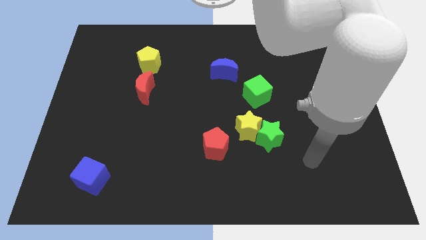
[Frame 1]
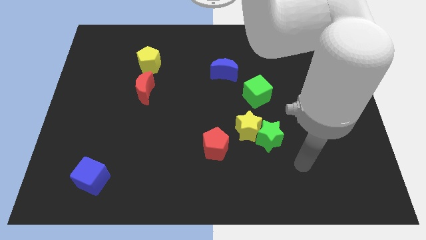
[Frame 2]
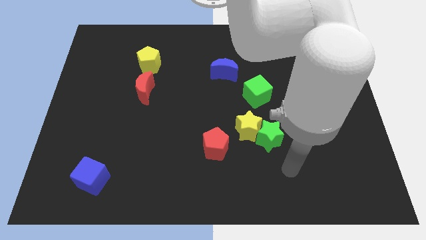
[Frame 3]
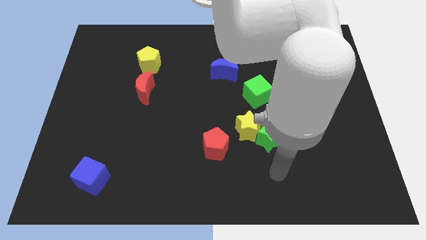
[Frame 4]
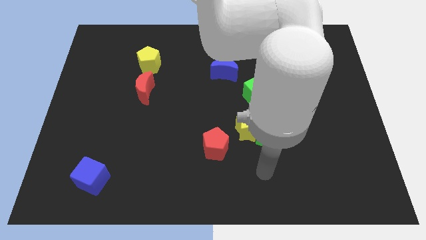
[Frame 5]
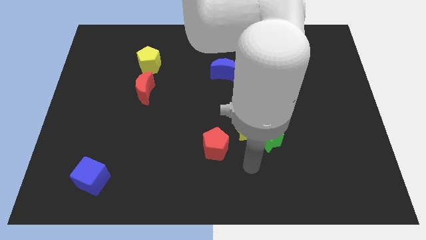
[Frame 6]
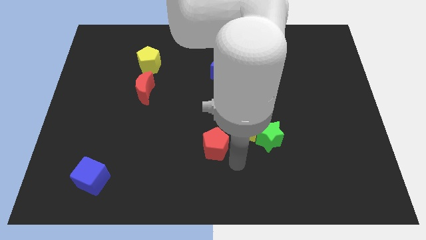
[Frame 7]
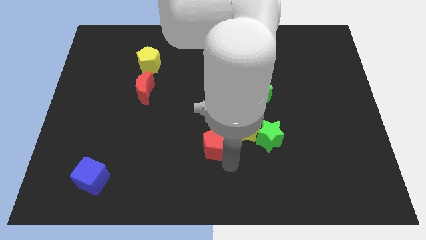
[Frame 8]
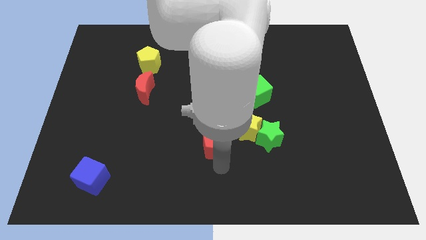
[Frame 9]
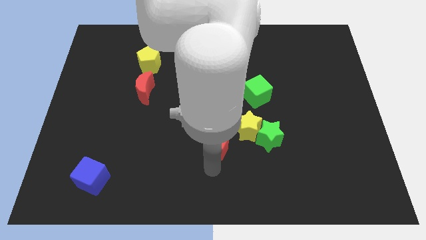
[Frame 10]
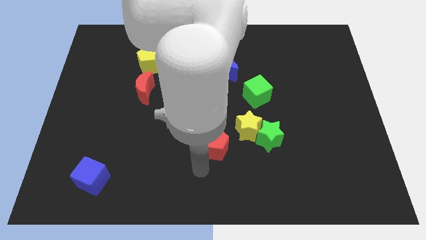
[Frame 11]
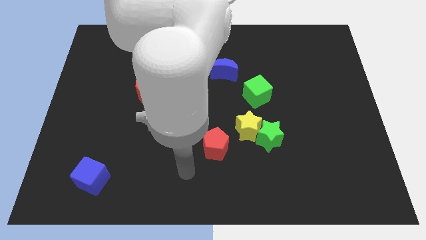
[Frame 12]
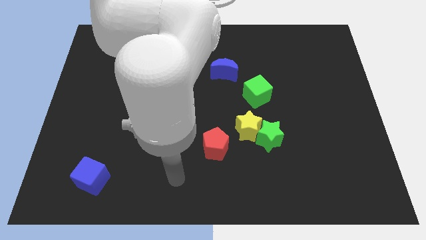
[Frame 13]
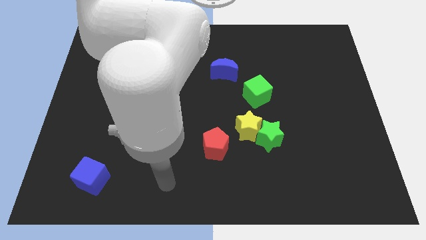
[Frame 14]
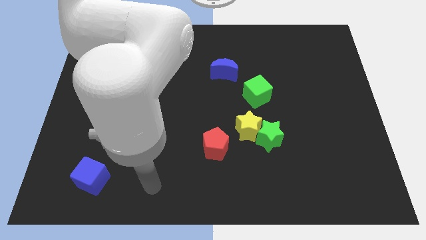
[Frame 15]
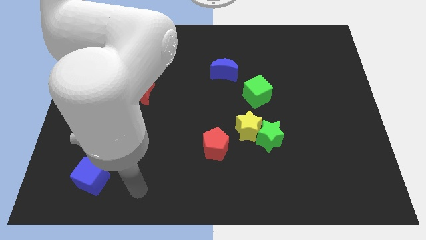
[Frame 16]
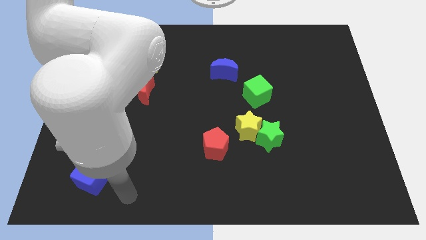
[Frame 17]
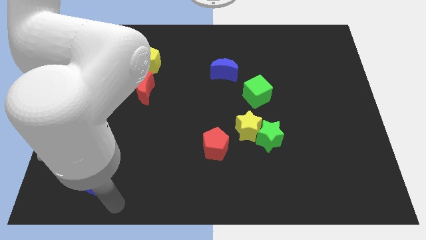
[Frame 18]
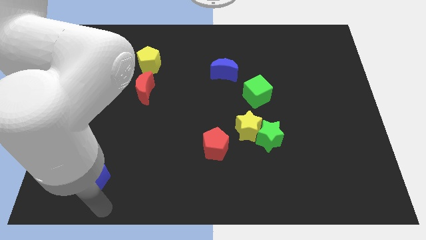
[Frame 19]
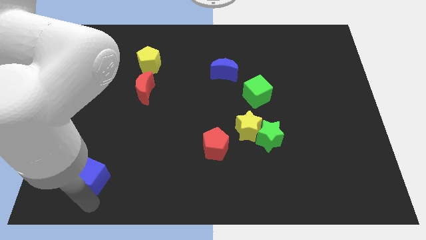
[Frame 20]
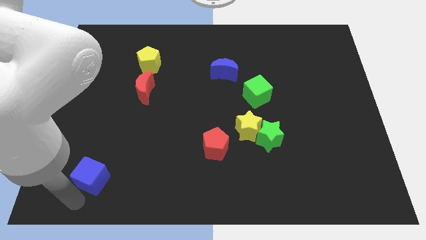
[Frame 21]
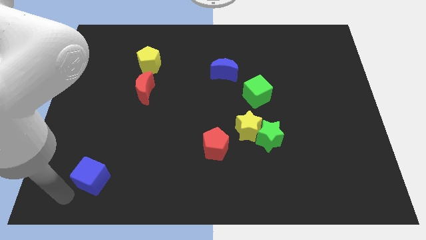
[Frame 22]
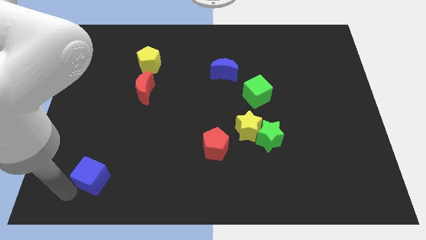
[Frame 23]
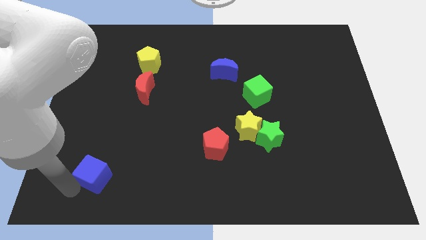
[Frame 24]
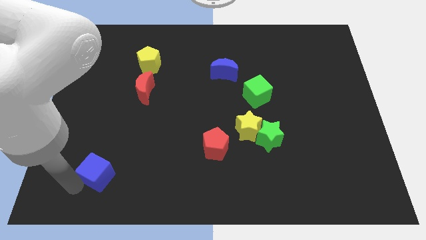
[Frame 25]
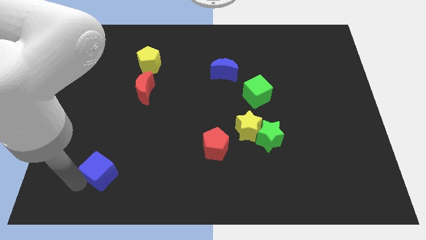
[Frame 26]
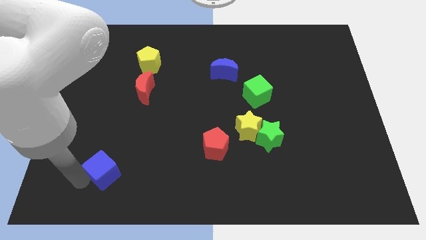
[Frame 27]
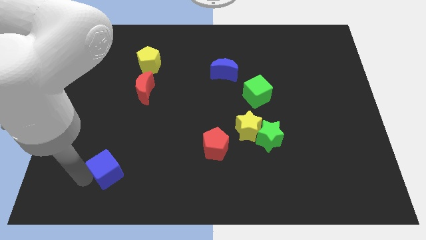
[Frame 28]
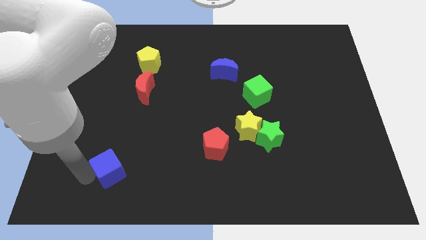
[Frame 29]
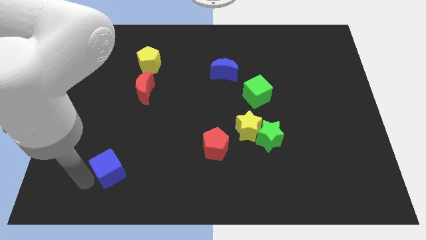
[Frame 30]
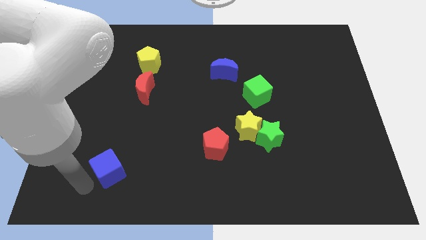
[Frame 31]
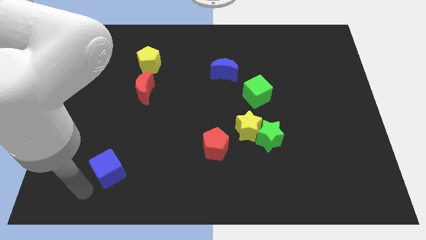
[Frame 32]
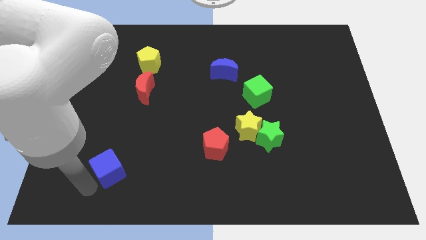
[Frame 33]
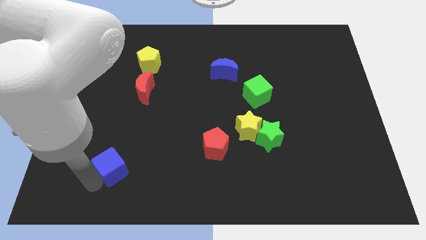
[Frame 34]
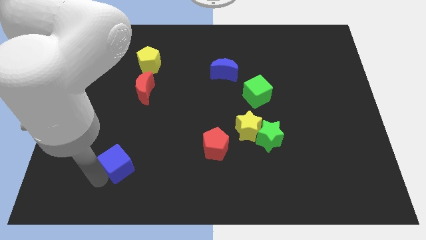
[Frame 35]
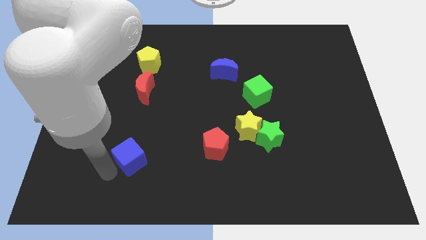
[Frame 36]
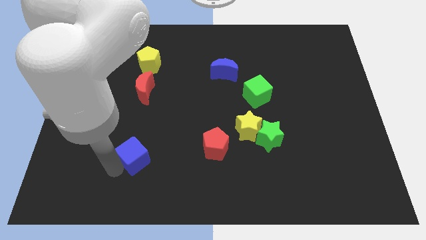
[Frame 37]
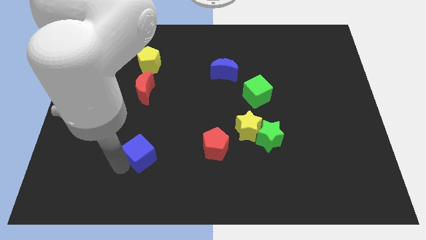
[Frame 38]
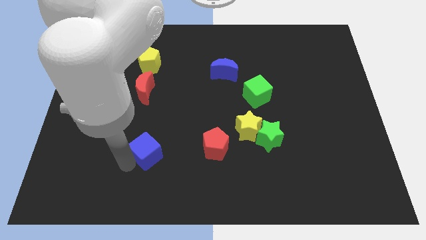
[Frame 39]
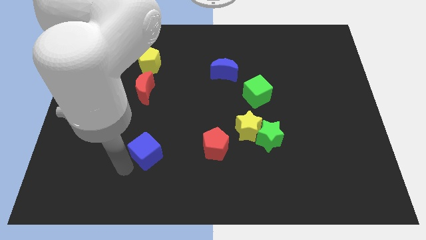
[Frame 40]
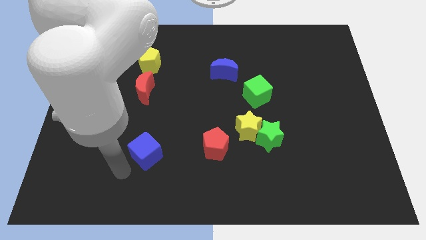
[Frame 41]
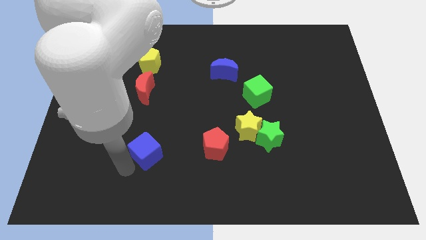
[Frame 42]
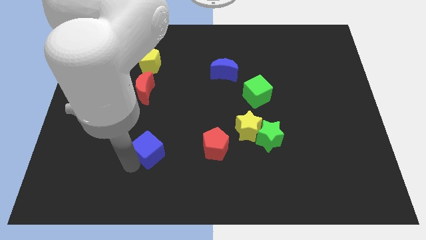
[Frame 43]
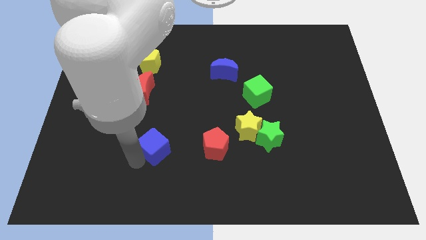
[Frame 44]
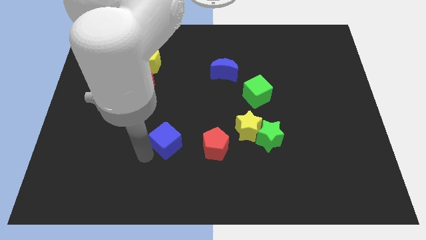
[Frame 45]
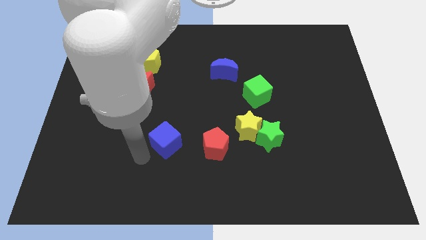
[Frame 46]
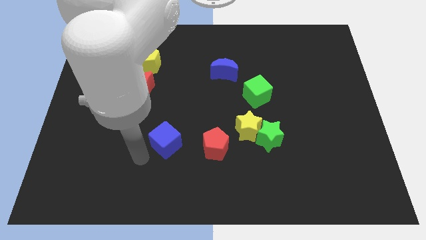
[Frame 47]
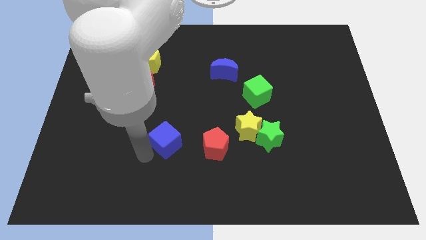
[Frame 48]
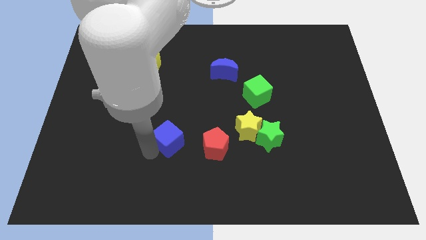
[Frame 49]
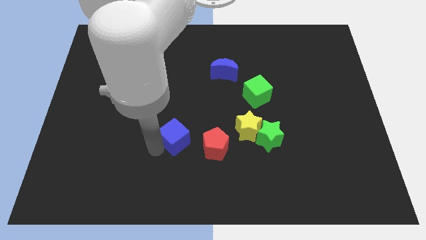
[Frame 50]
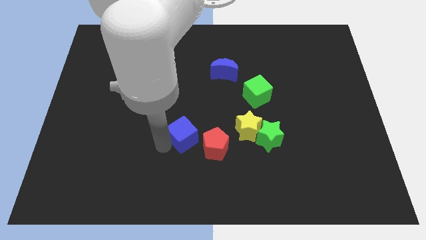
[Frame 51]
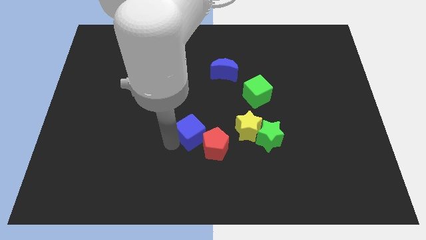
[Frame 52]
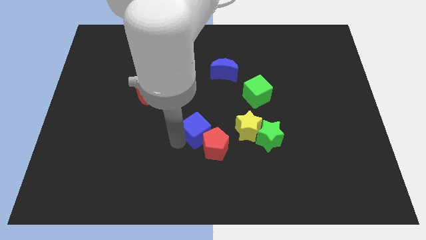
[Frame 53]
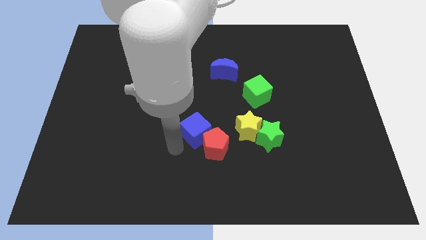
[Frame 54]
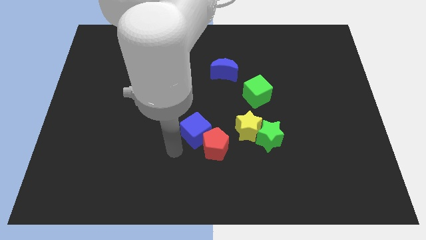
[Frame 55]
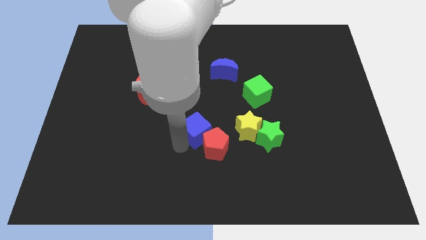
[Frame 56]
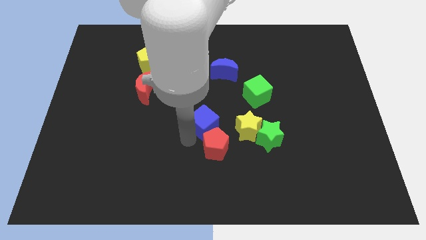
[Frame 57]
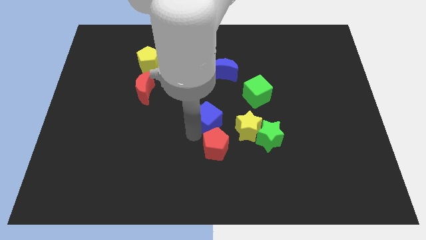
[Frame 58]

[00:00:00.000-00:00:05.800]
slide the blue cube to the top left side of the yellow star

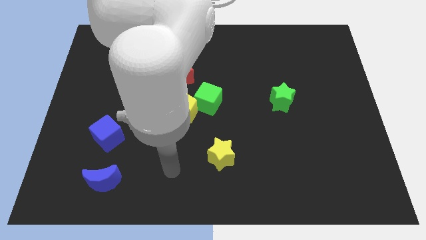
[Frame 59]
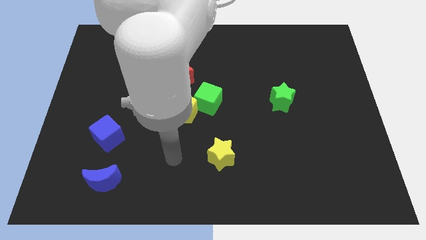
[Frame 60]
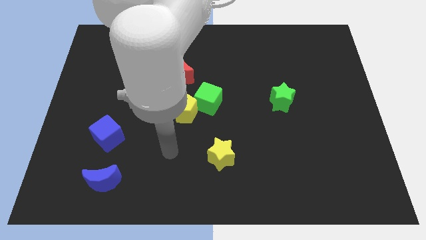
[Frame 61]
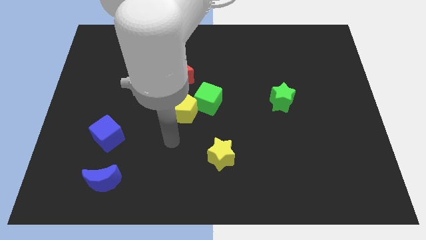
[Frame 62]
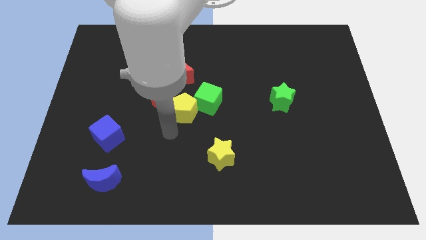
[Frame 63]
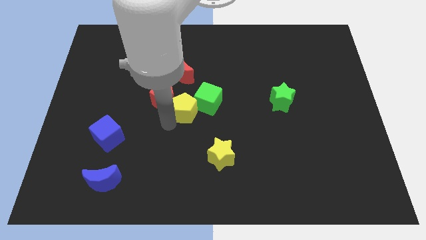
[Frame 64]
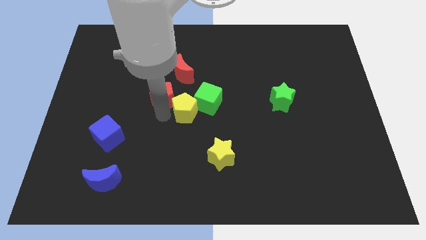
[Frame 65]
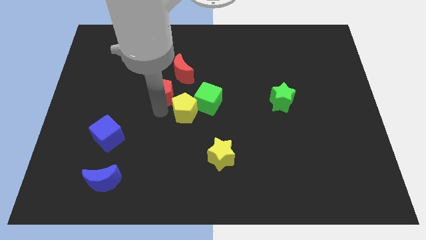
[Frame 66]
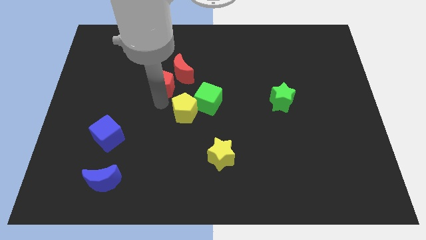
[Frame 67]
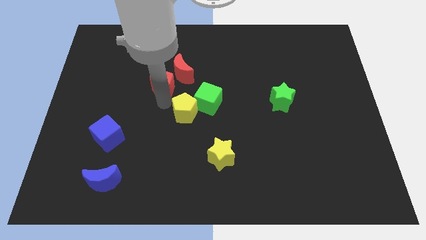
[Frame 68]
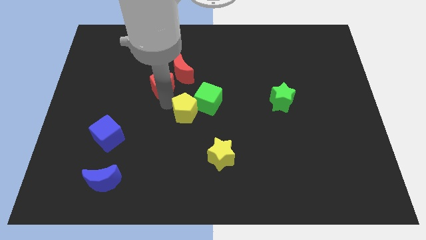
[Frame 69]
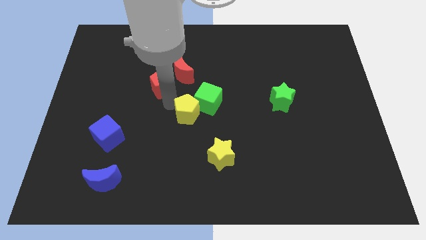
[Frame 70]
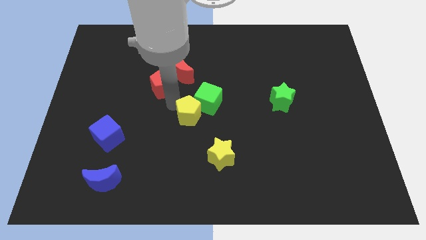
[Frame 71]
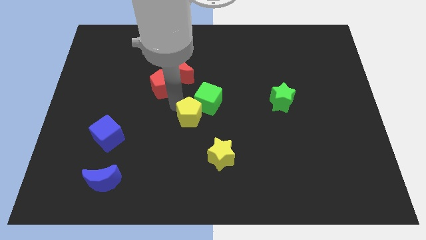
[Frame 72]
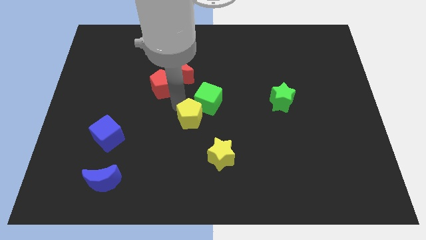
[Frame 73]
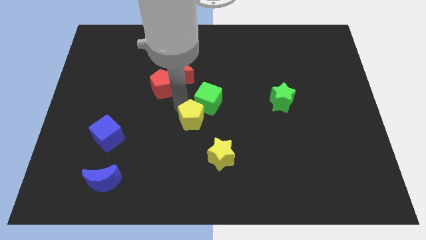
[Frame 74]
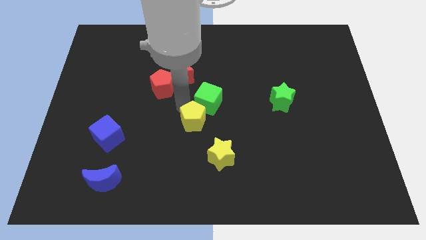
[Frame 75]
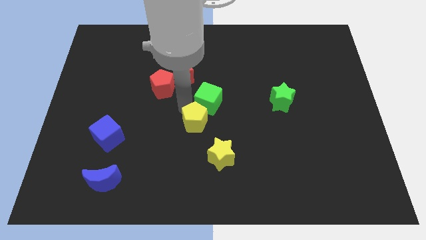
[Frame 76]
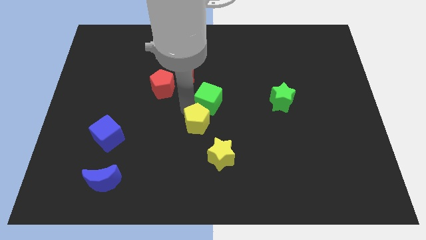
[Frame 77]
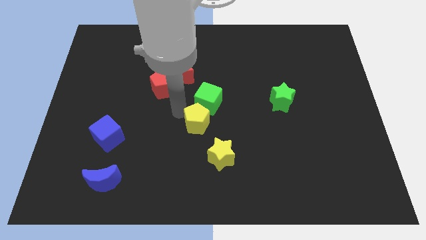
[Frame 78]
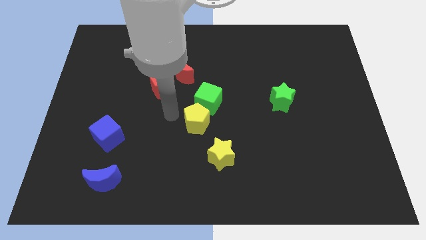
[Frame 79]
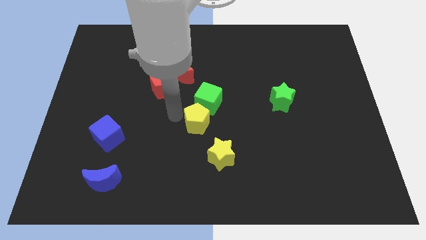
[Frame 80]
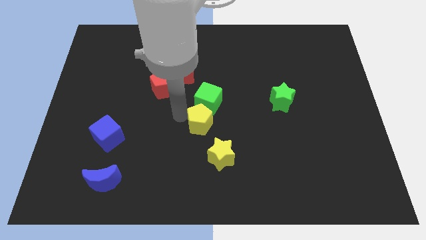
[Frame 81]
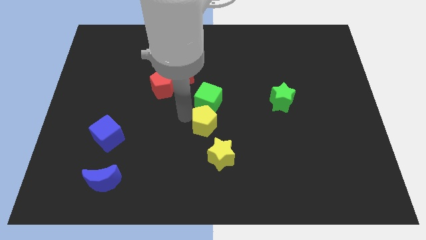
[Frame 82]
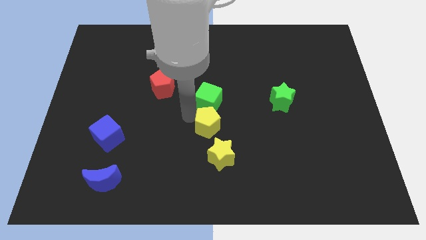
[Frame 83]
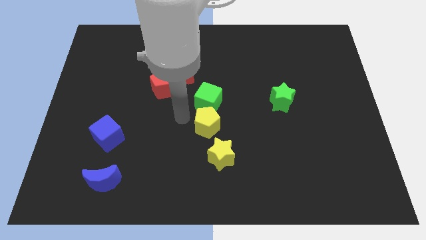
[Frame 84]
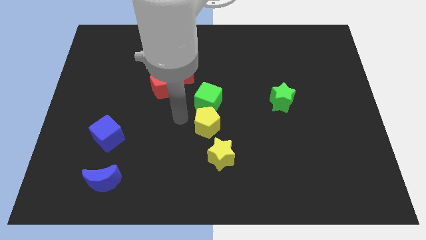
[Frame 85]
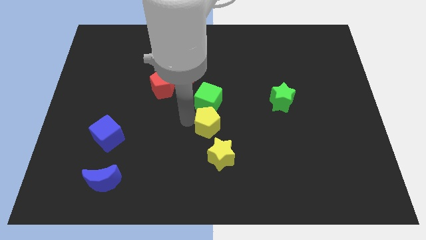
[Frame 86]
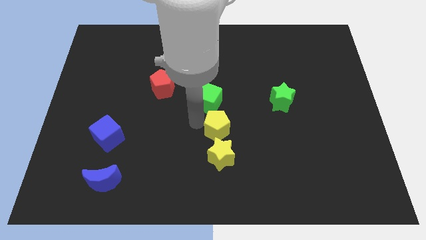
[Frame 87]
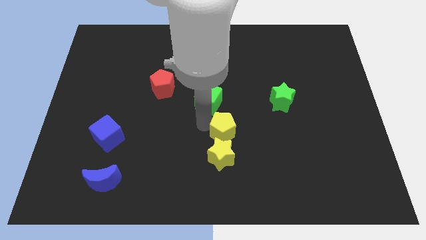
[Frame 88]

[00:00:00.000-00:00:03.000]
move the yellow pentagon to the top right side of the yellow star
